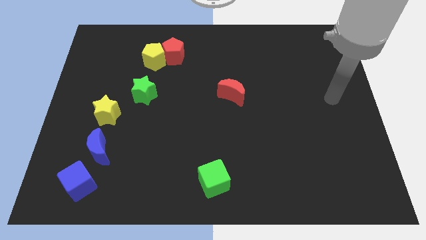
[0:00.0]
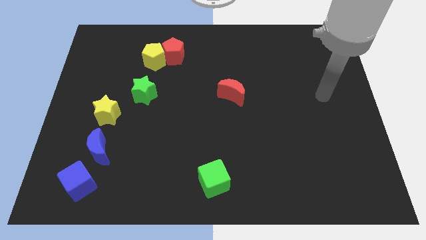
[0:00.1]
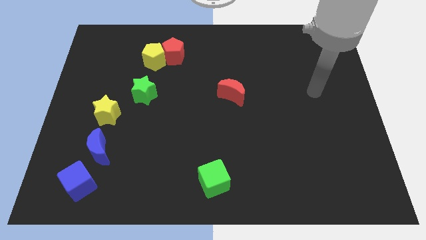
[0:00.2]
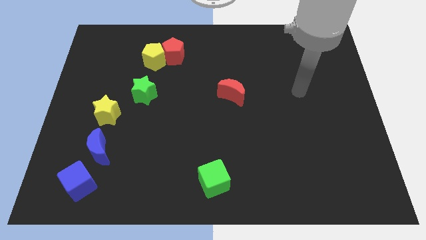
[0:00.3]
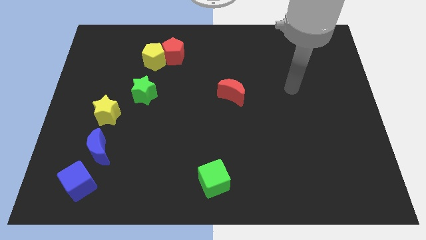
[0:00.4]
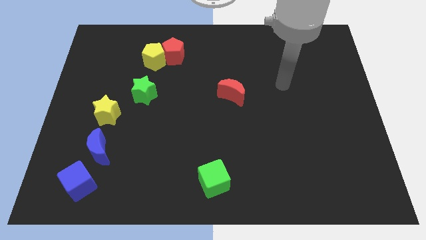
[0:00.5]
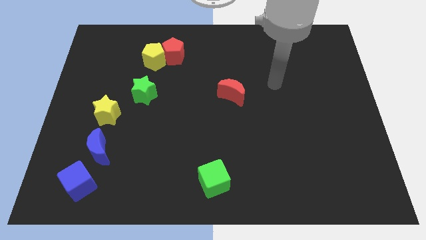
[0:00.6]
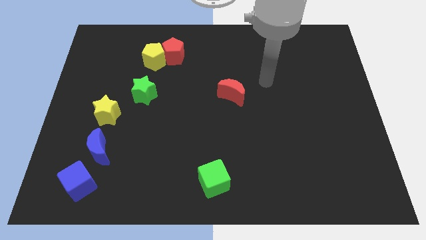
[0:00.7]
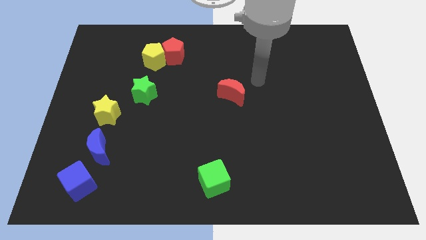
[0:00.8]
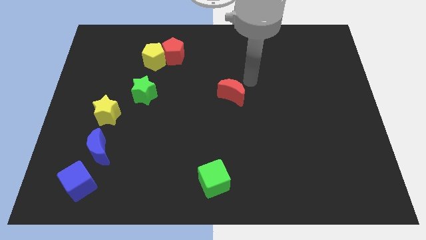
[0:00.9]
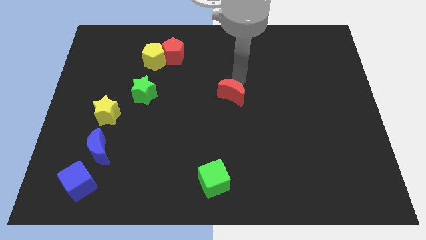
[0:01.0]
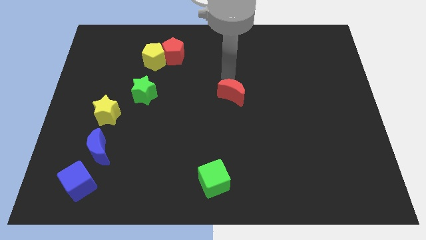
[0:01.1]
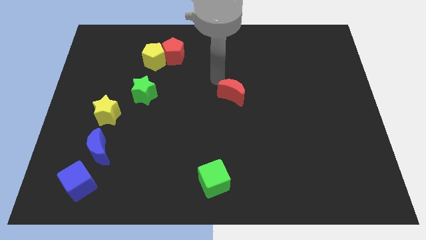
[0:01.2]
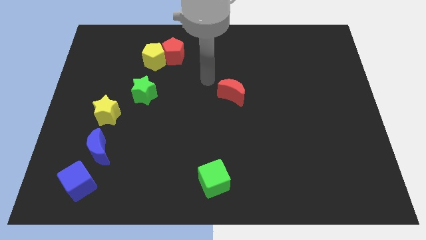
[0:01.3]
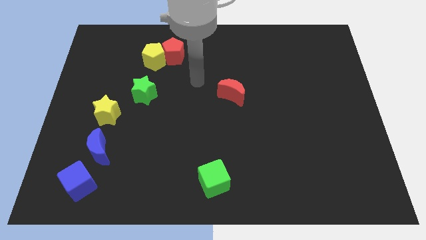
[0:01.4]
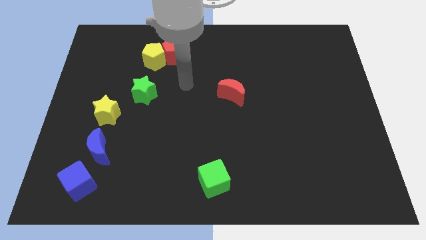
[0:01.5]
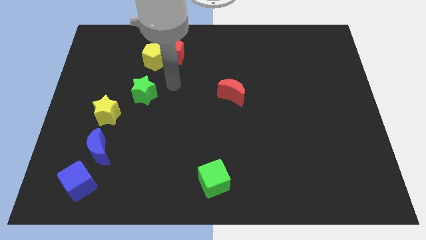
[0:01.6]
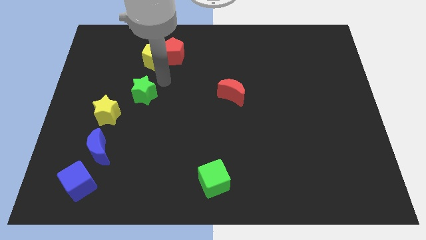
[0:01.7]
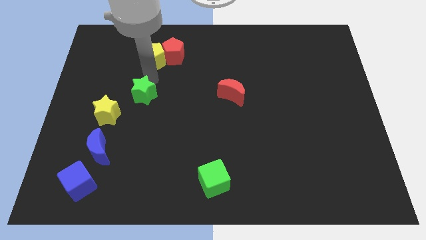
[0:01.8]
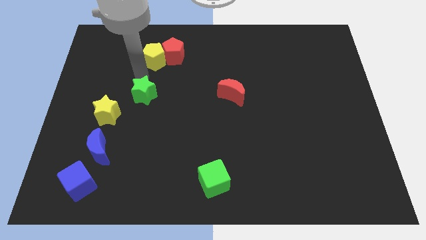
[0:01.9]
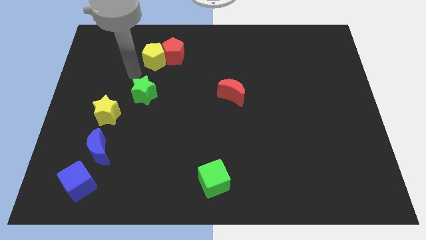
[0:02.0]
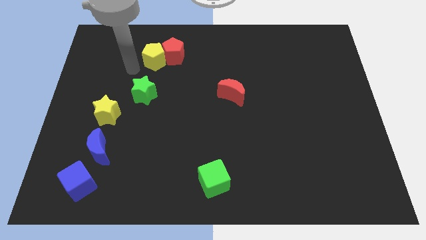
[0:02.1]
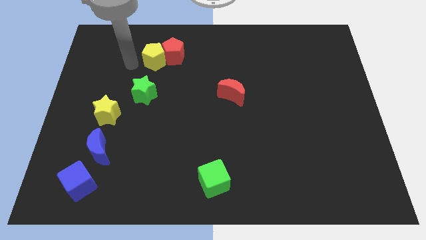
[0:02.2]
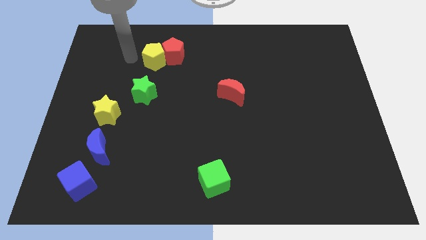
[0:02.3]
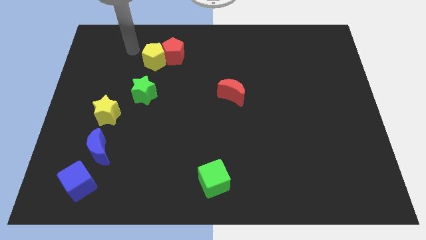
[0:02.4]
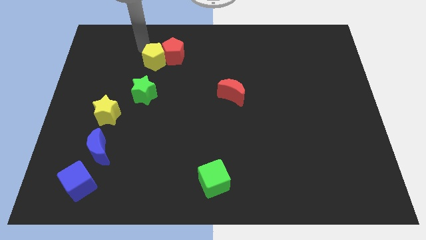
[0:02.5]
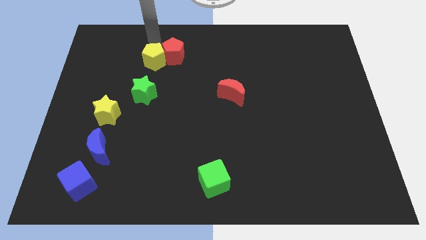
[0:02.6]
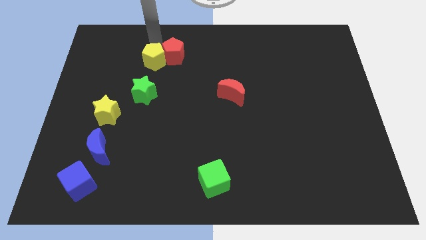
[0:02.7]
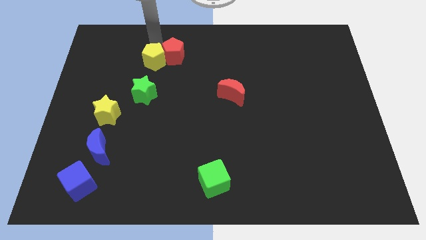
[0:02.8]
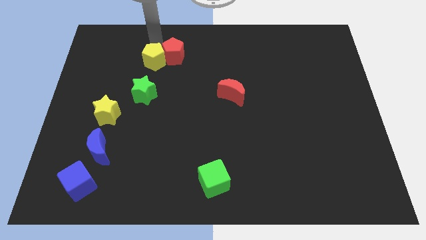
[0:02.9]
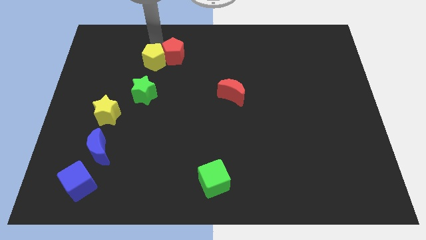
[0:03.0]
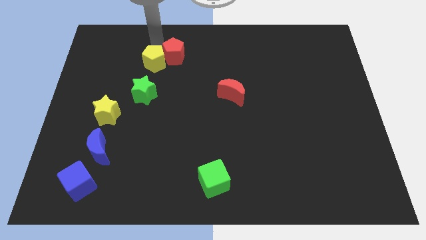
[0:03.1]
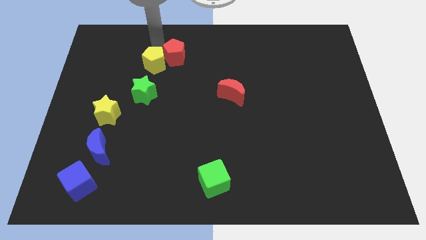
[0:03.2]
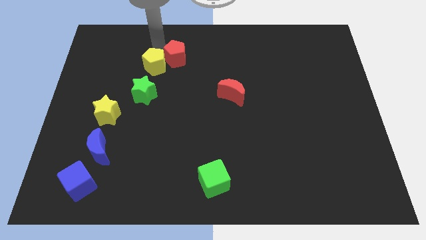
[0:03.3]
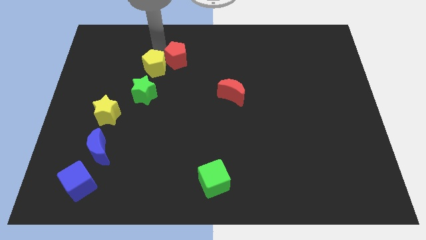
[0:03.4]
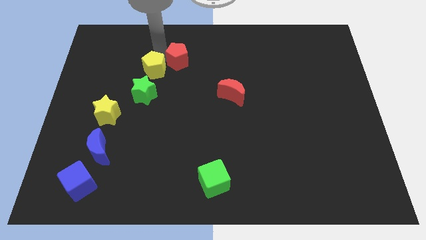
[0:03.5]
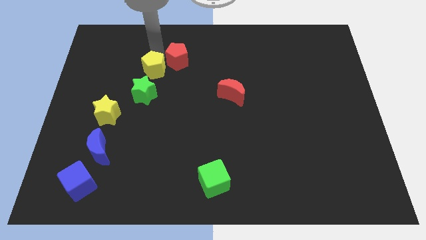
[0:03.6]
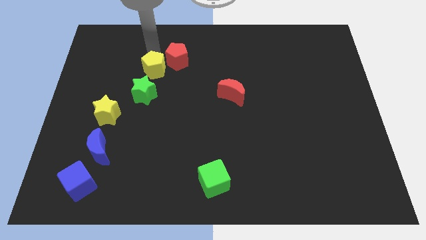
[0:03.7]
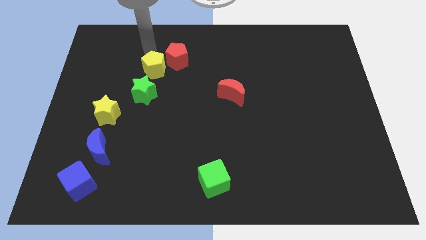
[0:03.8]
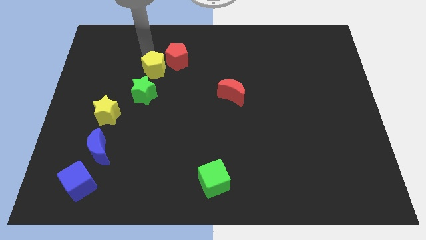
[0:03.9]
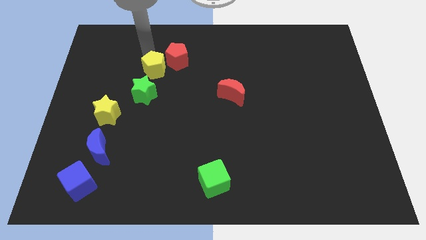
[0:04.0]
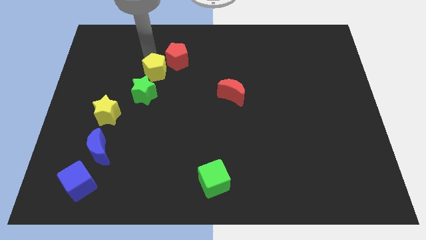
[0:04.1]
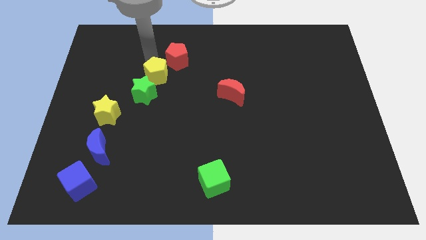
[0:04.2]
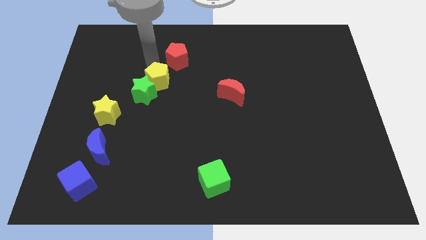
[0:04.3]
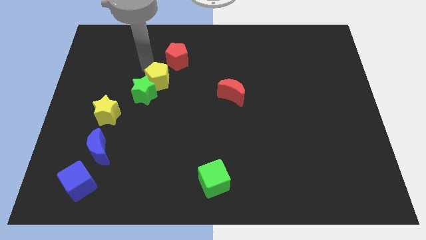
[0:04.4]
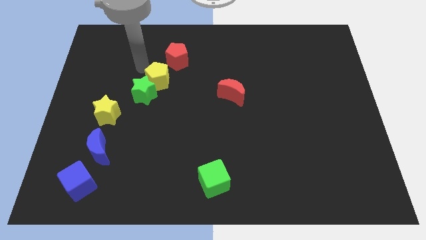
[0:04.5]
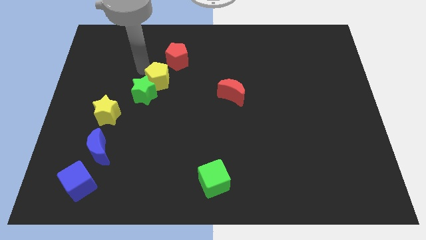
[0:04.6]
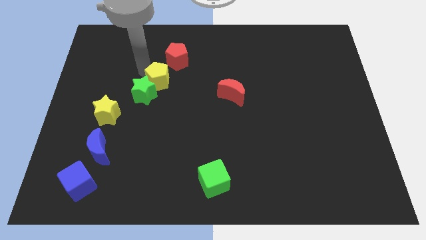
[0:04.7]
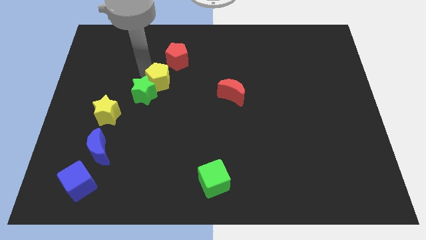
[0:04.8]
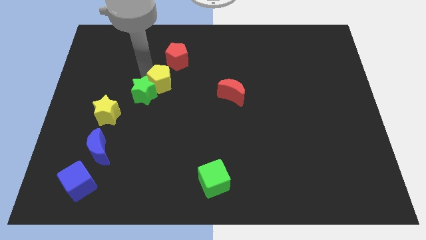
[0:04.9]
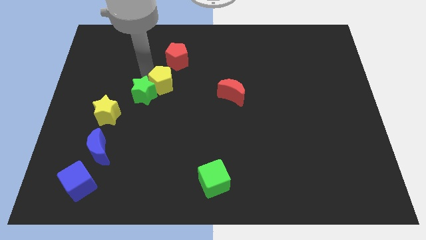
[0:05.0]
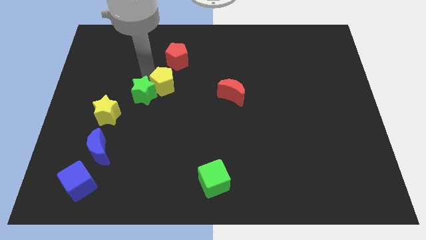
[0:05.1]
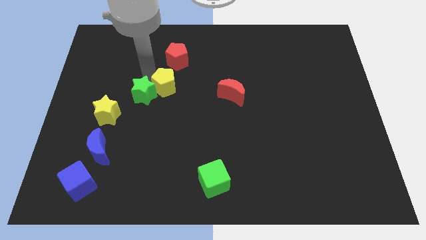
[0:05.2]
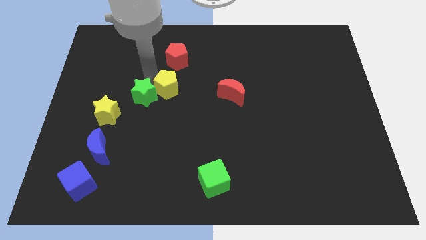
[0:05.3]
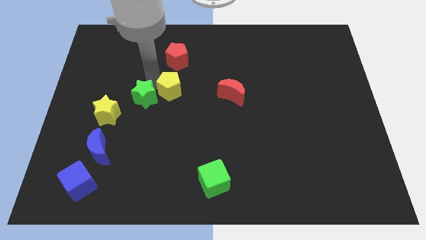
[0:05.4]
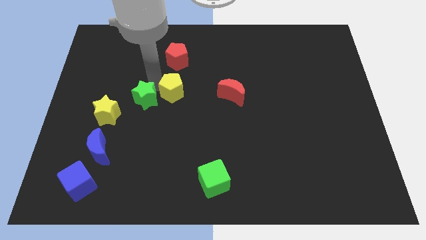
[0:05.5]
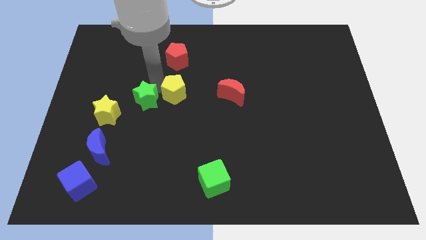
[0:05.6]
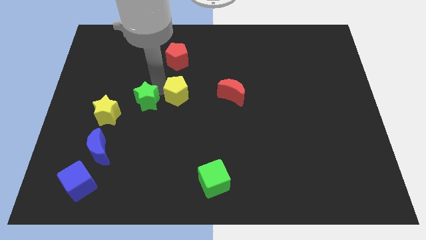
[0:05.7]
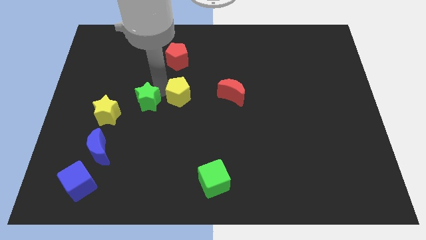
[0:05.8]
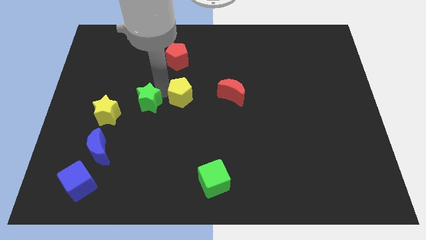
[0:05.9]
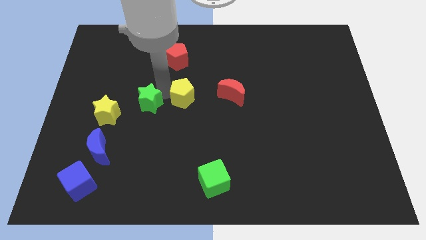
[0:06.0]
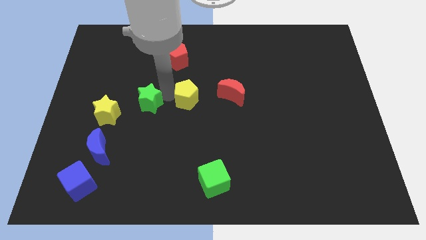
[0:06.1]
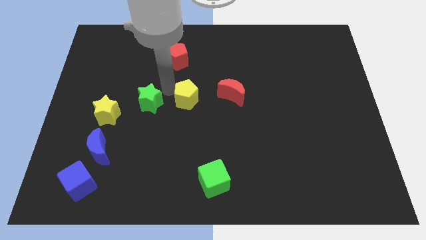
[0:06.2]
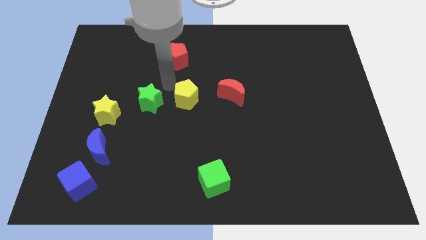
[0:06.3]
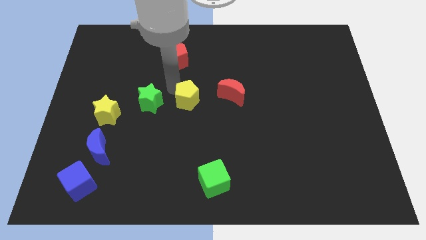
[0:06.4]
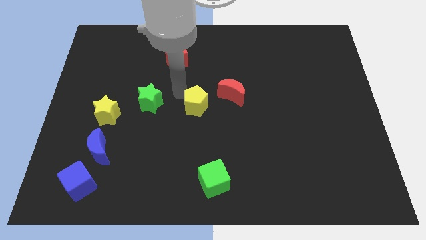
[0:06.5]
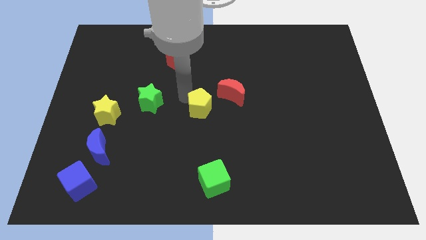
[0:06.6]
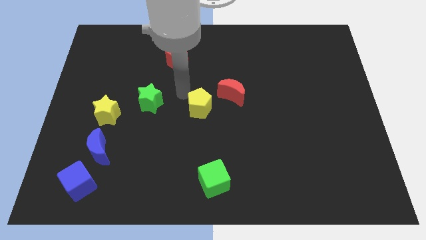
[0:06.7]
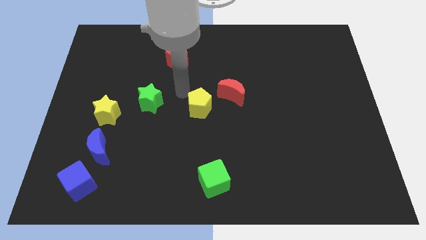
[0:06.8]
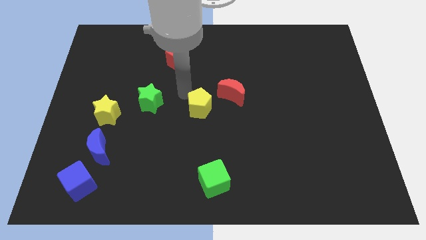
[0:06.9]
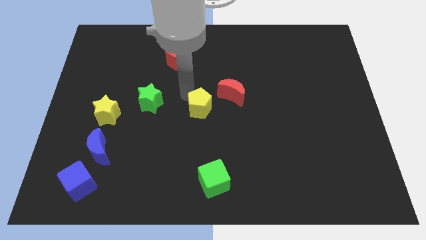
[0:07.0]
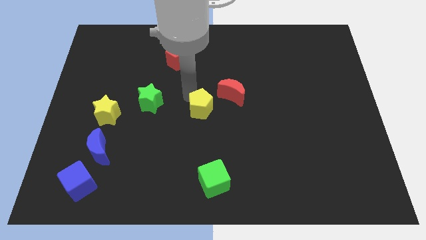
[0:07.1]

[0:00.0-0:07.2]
slide the yellow pentagon down and right

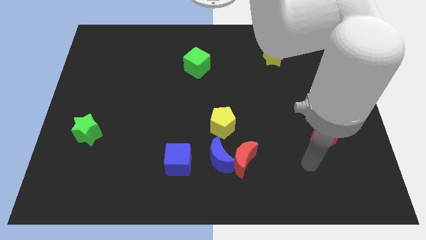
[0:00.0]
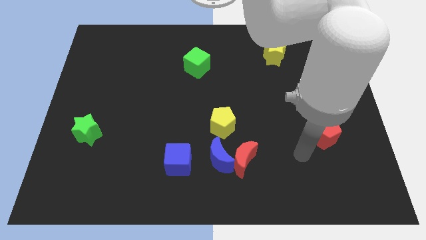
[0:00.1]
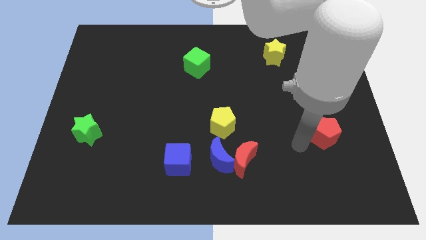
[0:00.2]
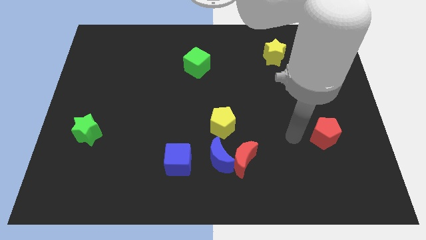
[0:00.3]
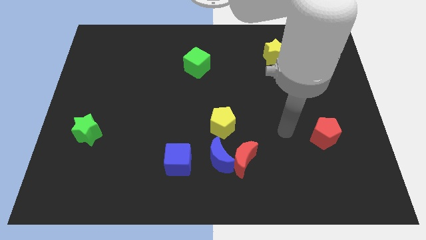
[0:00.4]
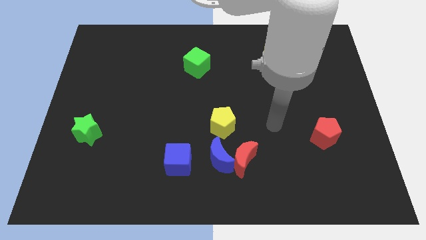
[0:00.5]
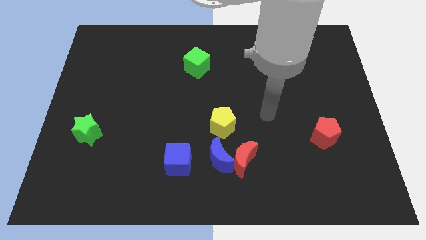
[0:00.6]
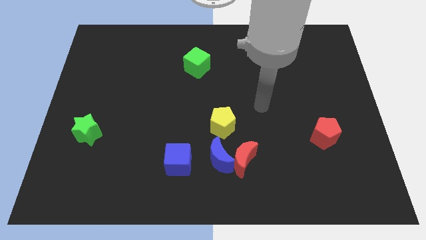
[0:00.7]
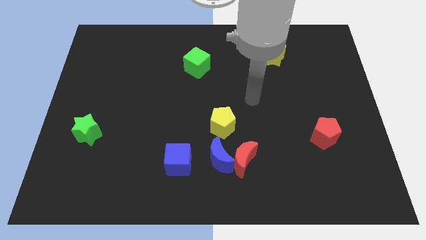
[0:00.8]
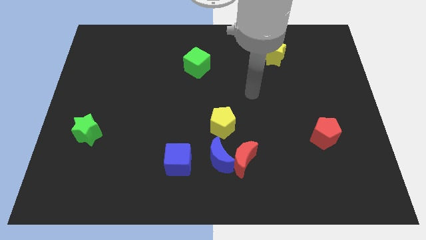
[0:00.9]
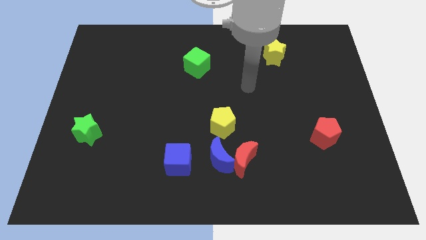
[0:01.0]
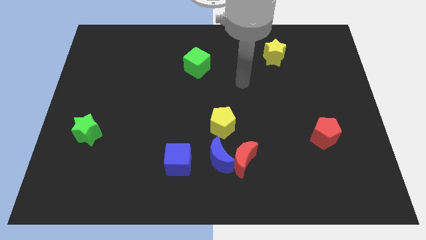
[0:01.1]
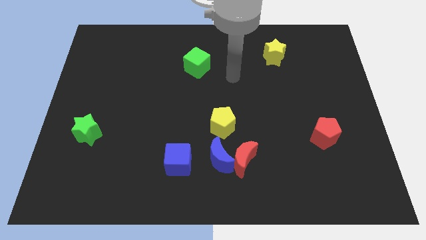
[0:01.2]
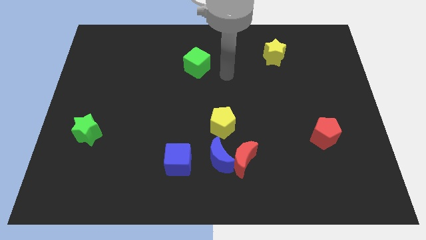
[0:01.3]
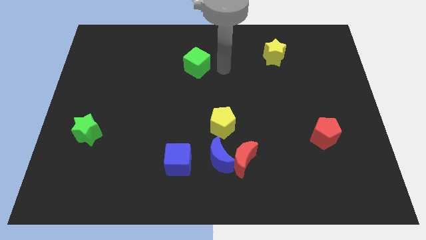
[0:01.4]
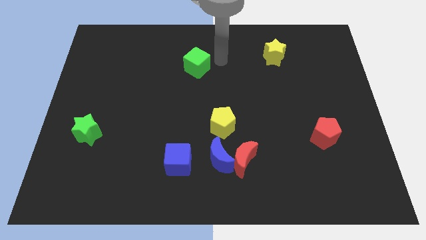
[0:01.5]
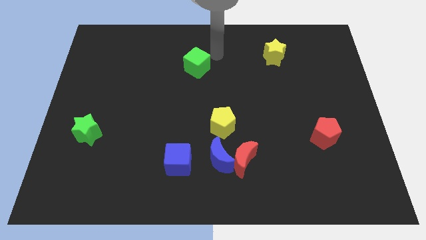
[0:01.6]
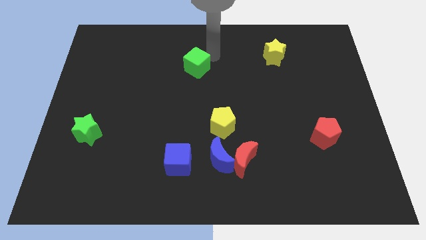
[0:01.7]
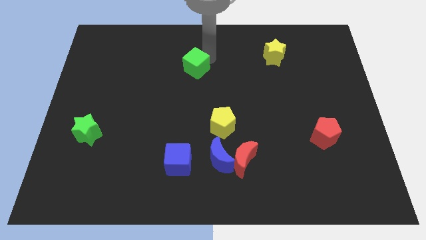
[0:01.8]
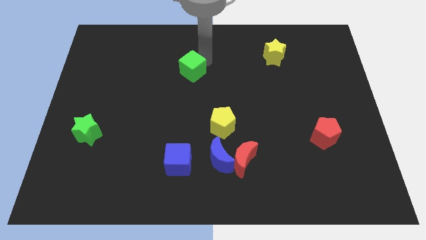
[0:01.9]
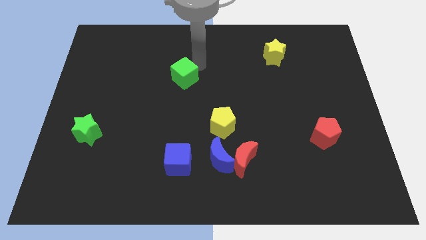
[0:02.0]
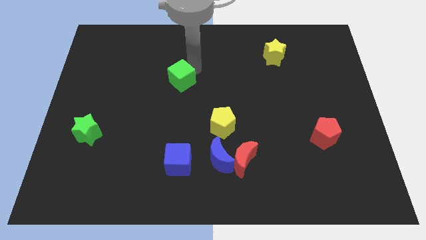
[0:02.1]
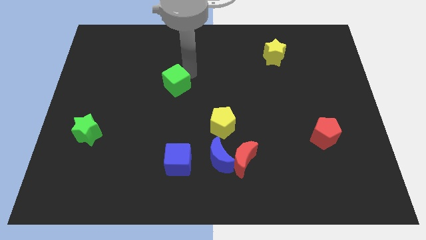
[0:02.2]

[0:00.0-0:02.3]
push the green cube down and then left a bit
